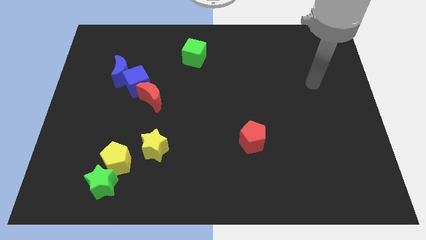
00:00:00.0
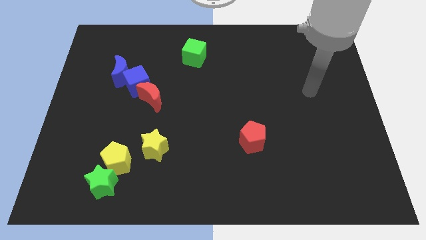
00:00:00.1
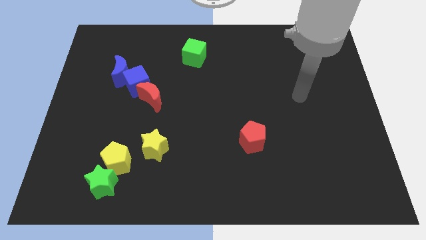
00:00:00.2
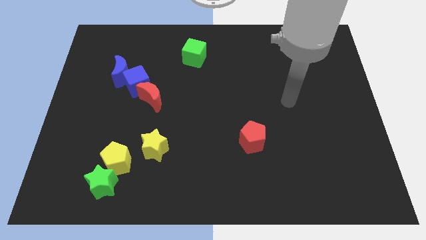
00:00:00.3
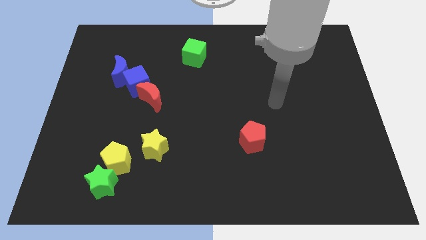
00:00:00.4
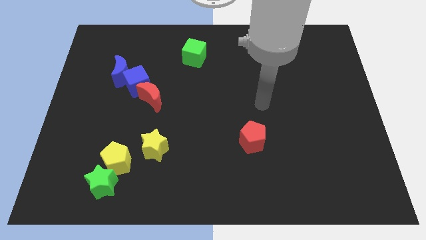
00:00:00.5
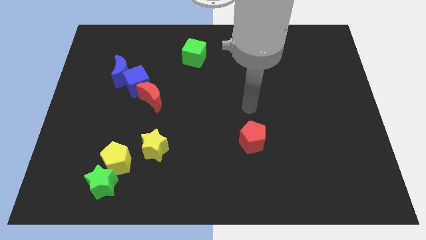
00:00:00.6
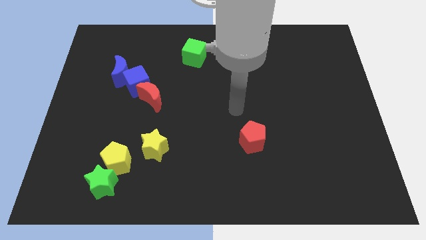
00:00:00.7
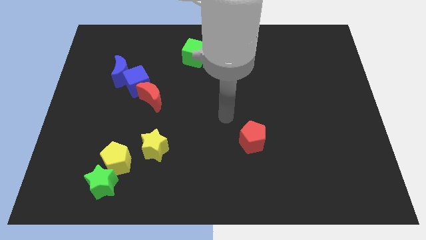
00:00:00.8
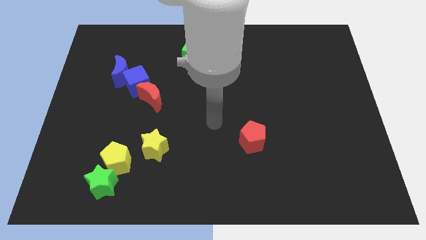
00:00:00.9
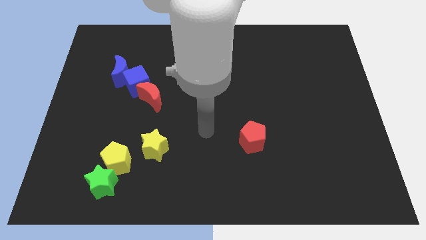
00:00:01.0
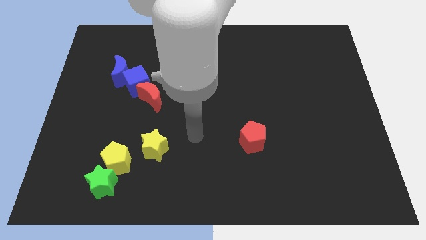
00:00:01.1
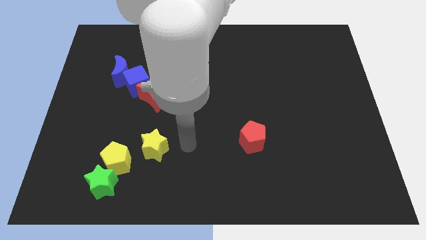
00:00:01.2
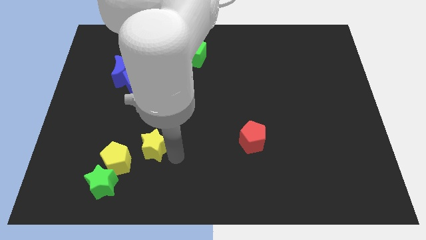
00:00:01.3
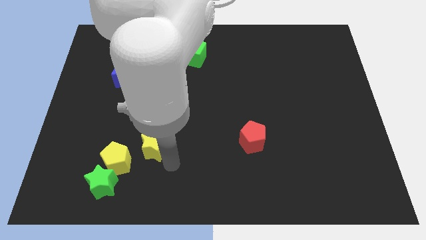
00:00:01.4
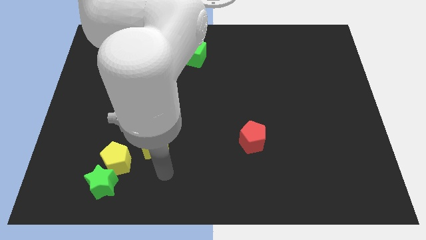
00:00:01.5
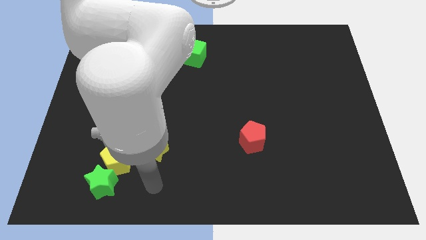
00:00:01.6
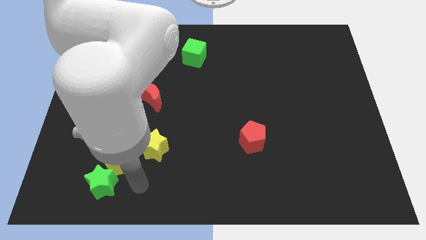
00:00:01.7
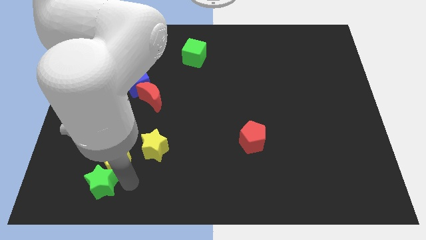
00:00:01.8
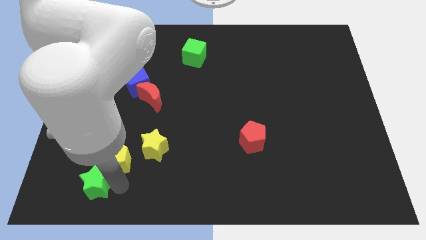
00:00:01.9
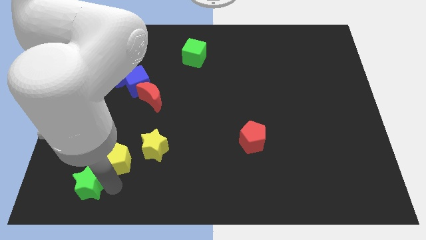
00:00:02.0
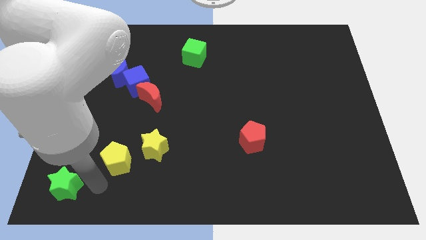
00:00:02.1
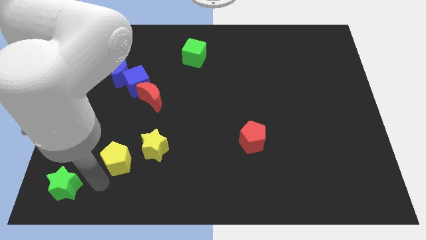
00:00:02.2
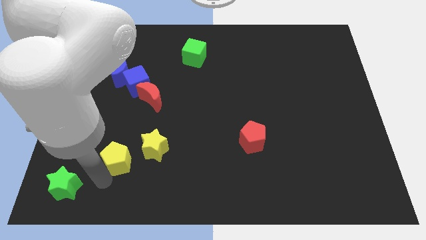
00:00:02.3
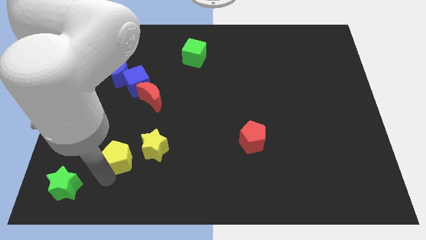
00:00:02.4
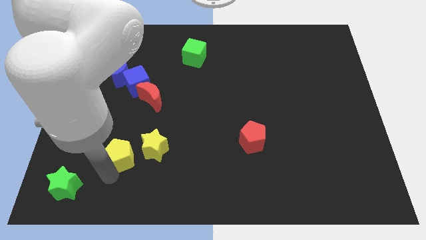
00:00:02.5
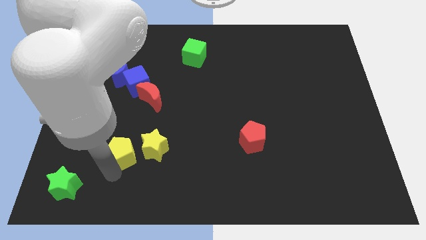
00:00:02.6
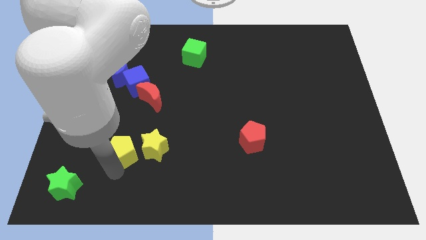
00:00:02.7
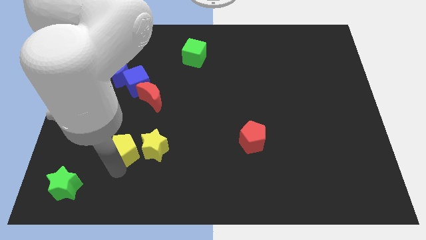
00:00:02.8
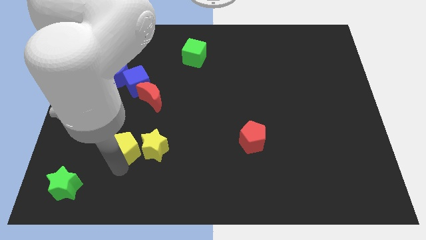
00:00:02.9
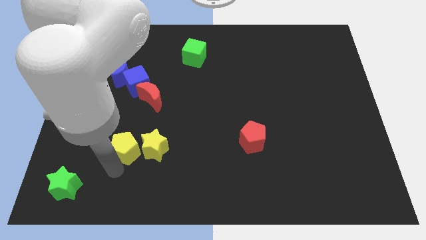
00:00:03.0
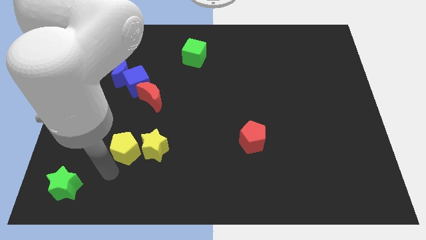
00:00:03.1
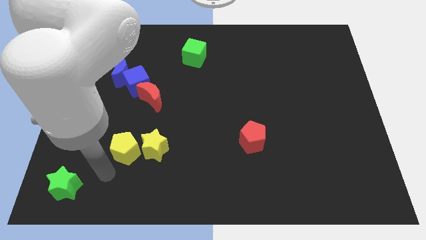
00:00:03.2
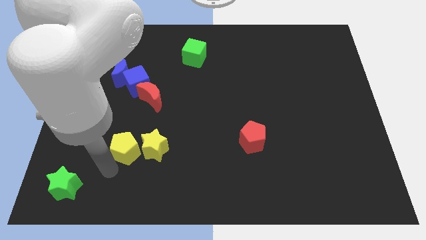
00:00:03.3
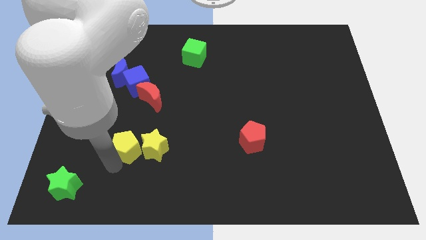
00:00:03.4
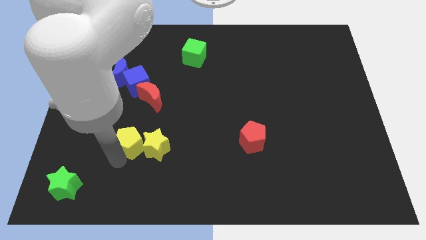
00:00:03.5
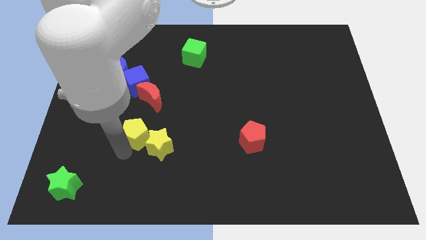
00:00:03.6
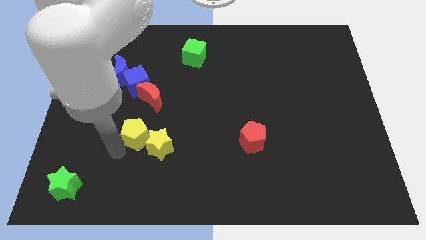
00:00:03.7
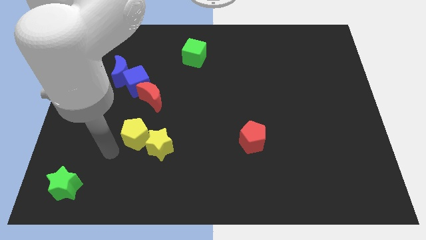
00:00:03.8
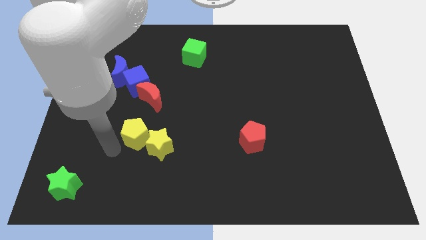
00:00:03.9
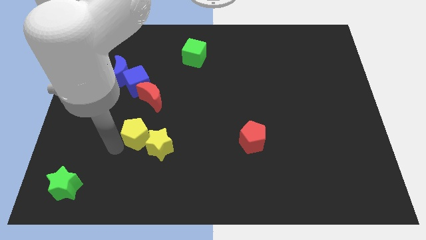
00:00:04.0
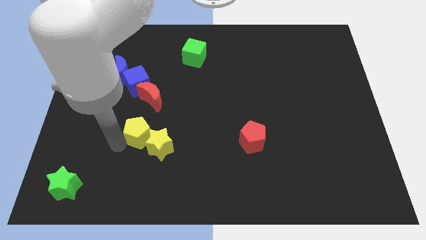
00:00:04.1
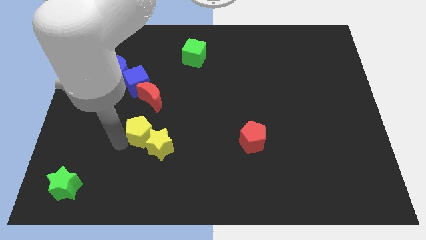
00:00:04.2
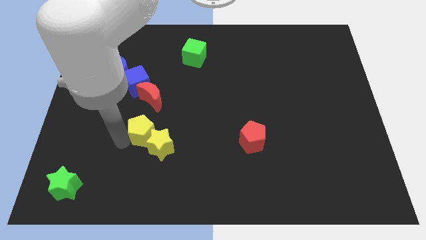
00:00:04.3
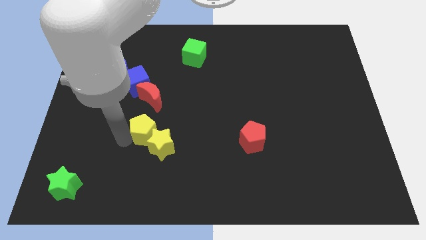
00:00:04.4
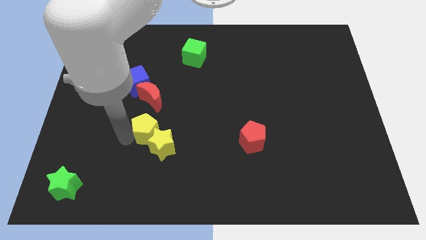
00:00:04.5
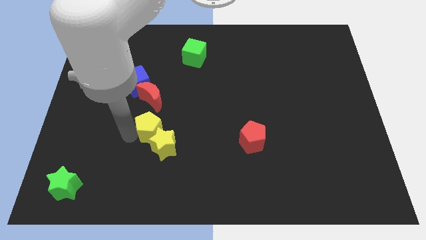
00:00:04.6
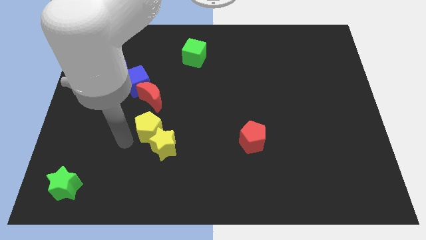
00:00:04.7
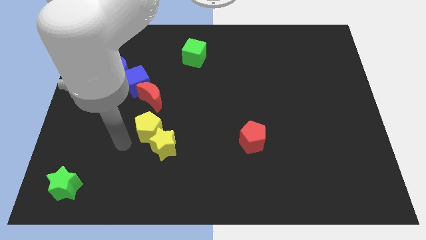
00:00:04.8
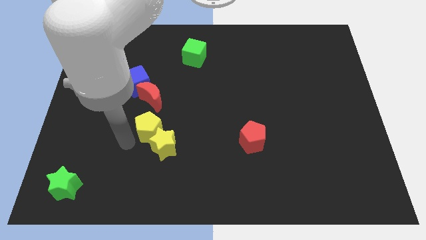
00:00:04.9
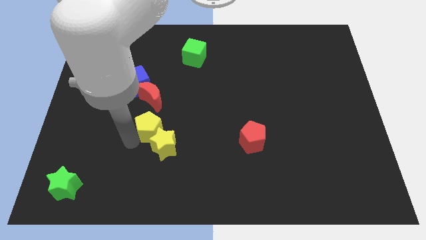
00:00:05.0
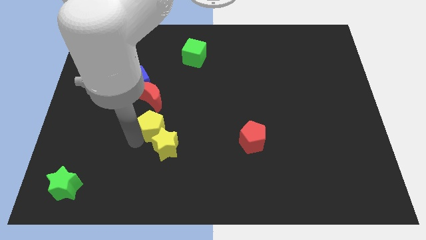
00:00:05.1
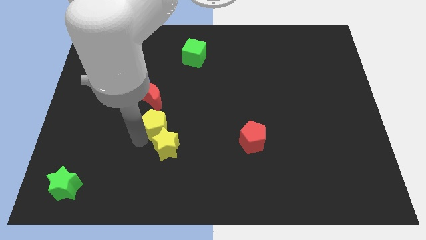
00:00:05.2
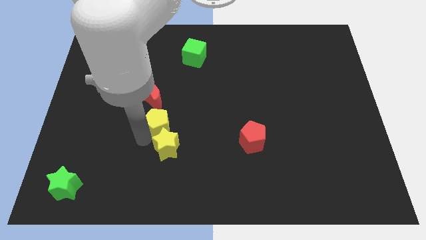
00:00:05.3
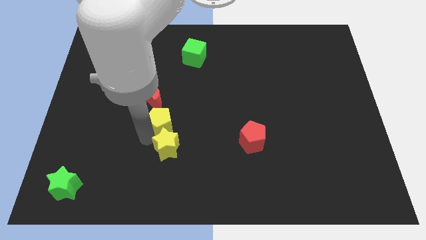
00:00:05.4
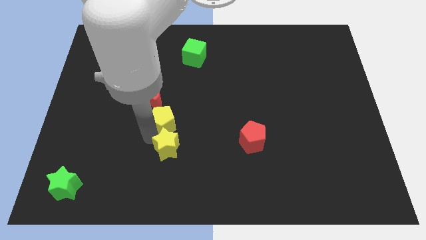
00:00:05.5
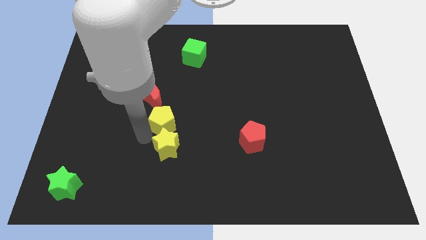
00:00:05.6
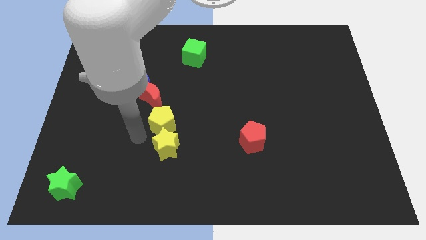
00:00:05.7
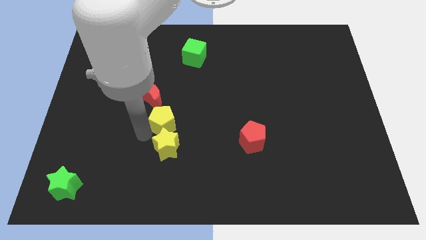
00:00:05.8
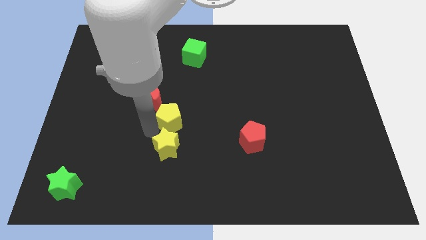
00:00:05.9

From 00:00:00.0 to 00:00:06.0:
move the yellow pentagon to the middle of the board

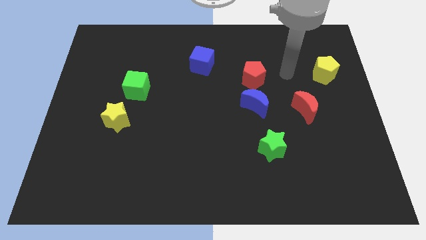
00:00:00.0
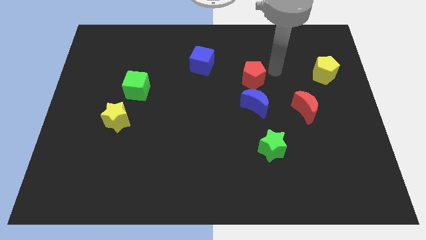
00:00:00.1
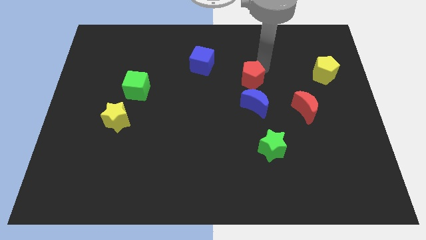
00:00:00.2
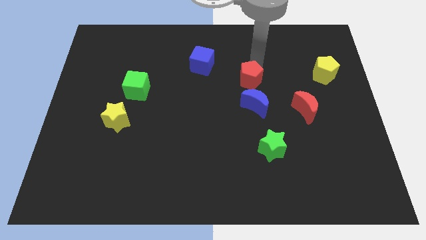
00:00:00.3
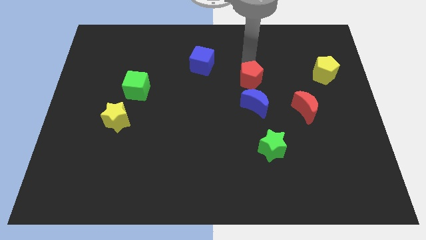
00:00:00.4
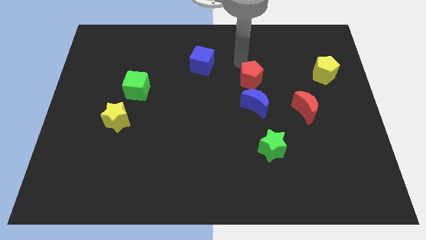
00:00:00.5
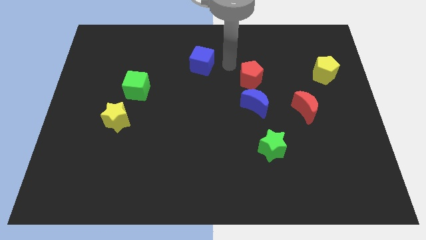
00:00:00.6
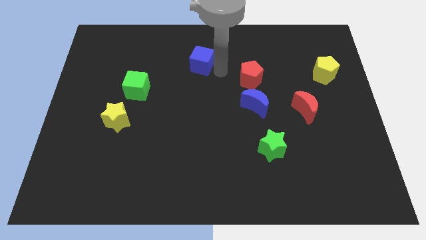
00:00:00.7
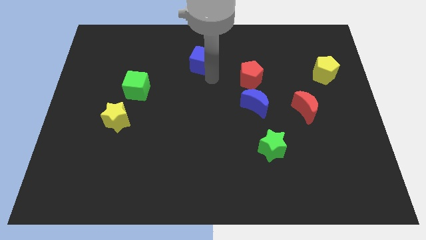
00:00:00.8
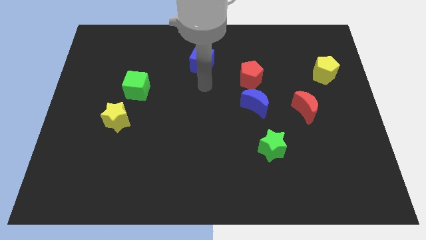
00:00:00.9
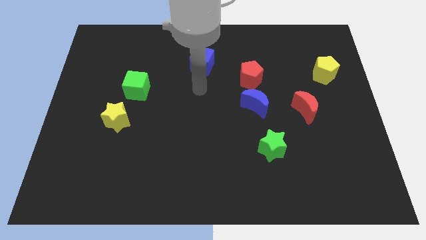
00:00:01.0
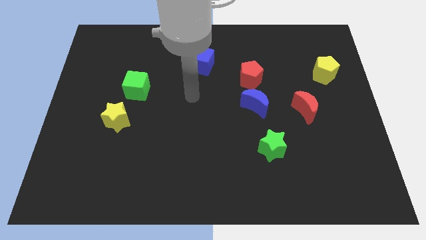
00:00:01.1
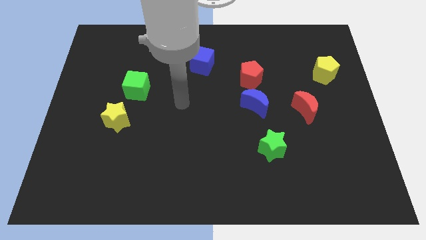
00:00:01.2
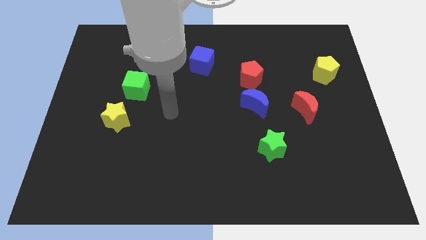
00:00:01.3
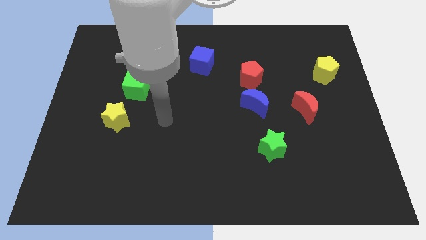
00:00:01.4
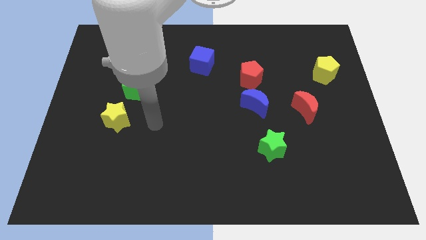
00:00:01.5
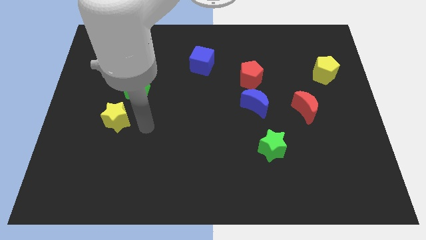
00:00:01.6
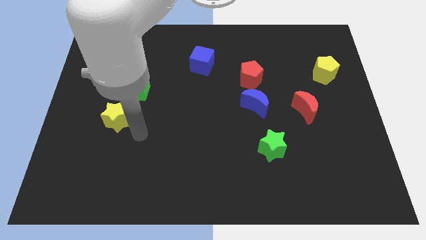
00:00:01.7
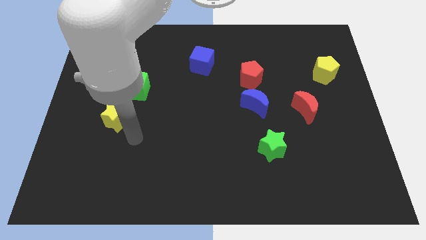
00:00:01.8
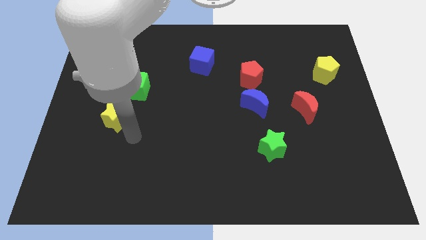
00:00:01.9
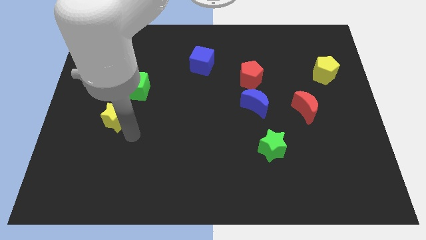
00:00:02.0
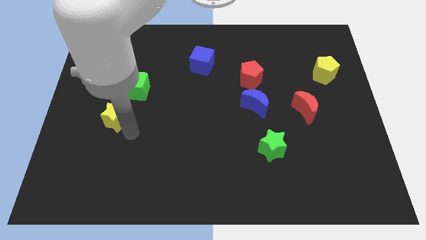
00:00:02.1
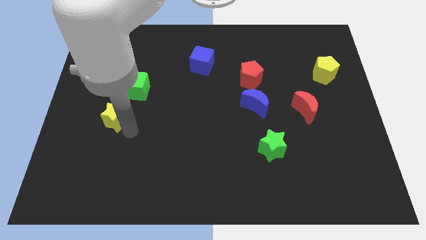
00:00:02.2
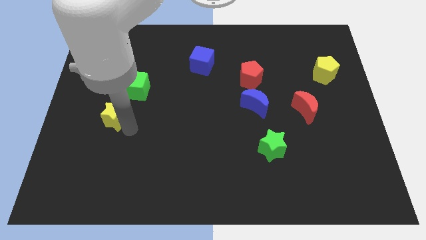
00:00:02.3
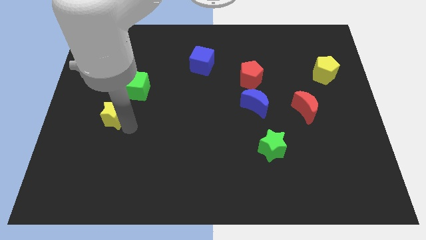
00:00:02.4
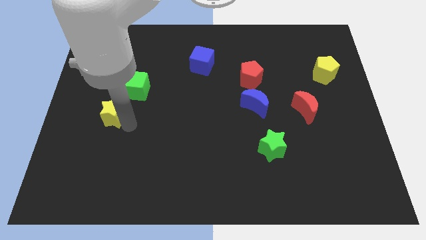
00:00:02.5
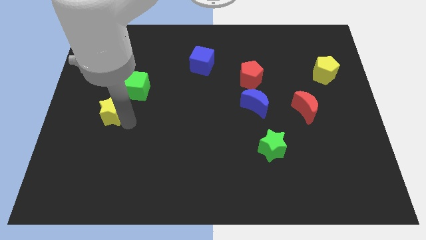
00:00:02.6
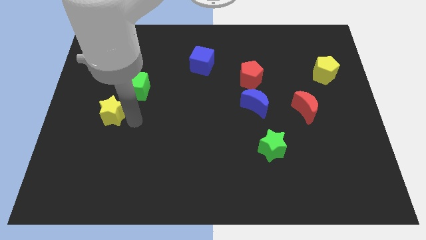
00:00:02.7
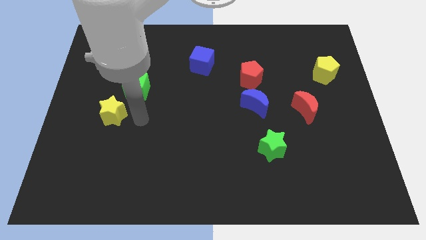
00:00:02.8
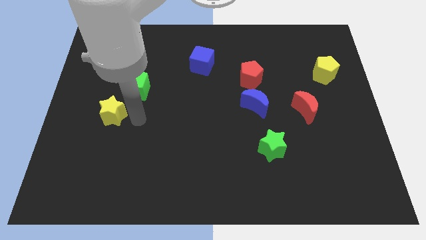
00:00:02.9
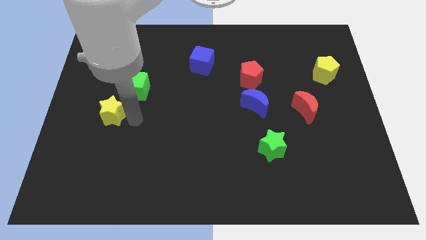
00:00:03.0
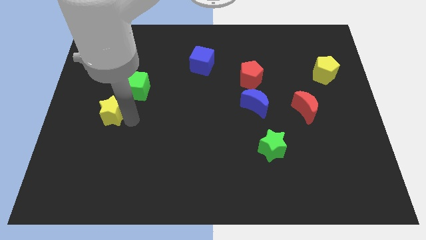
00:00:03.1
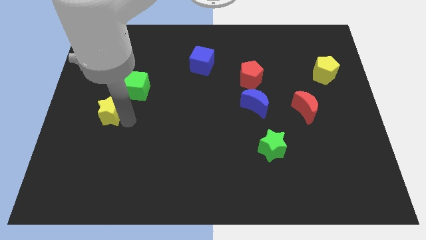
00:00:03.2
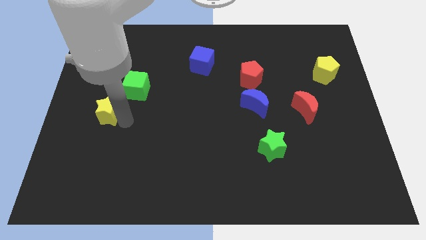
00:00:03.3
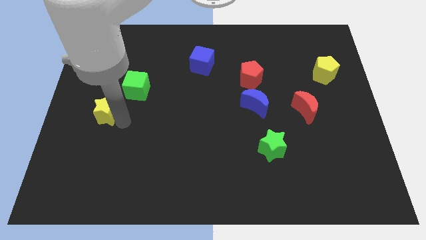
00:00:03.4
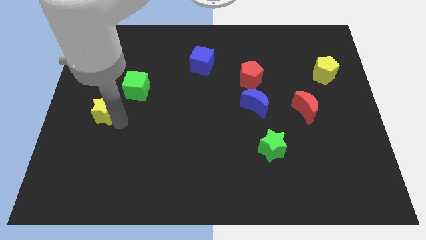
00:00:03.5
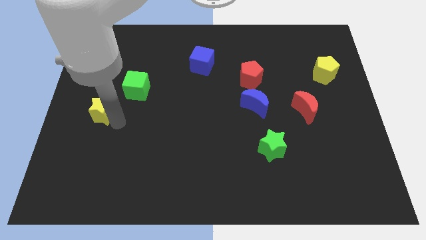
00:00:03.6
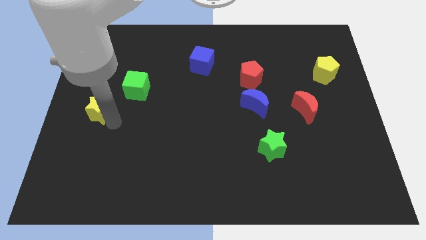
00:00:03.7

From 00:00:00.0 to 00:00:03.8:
put the yellow star to the left side of the board
